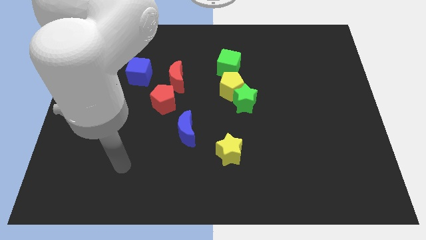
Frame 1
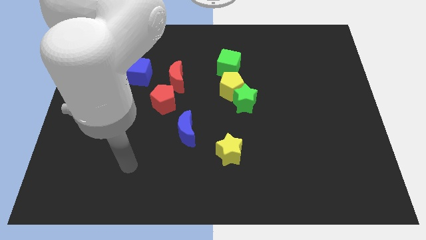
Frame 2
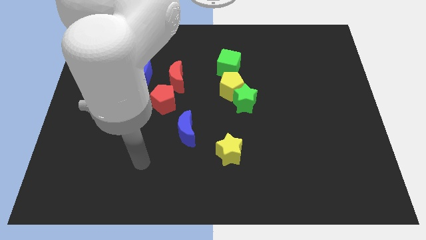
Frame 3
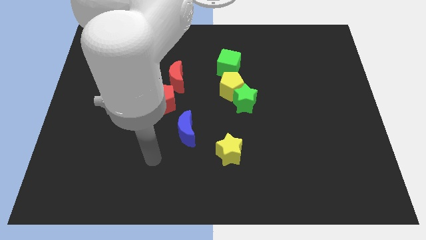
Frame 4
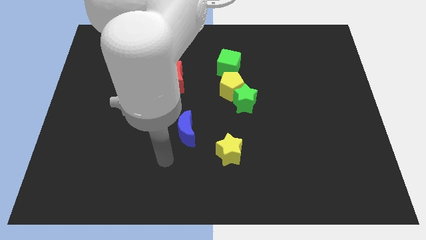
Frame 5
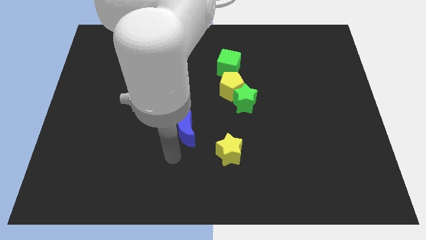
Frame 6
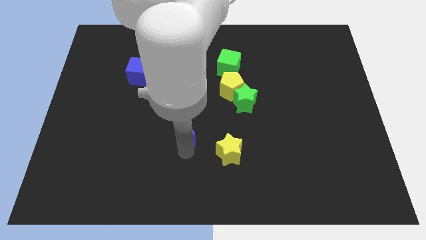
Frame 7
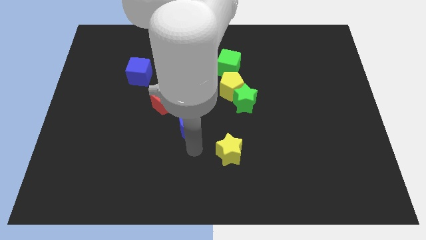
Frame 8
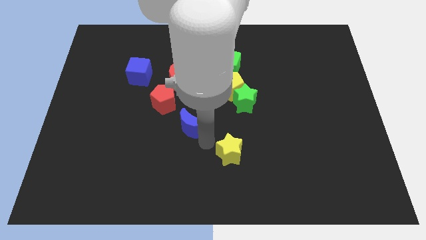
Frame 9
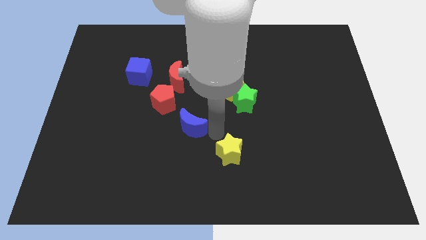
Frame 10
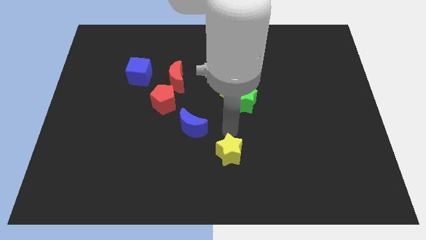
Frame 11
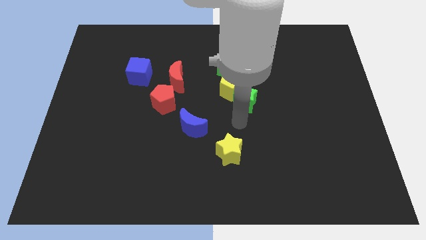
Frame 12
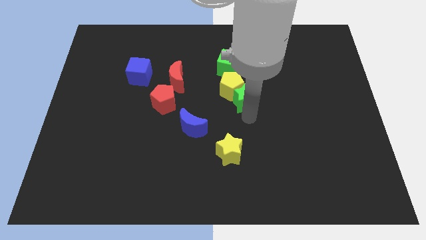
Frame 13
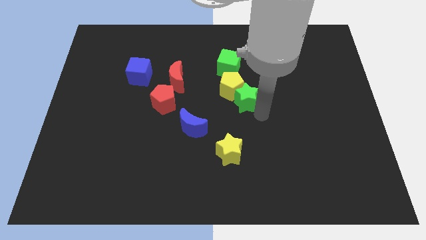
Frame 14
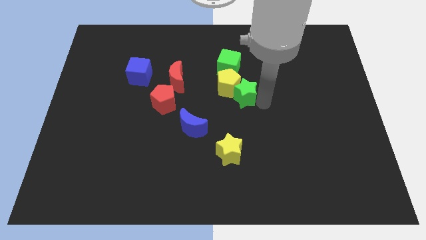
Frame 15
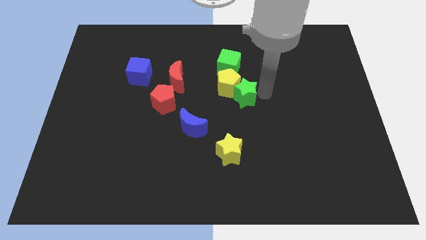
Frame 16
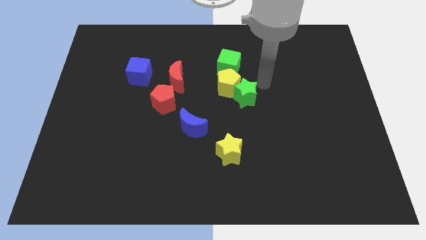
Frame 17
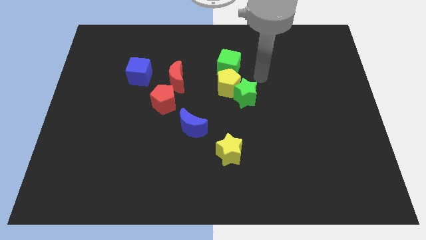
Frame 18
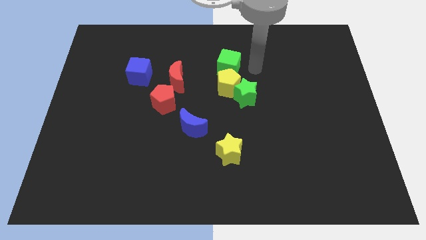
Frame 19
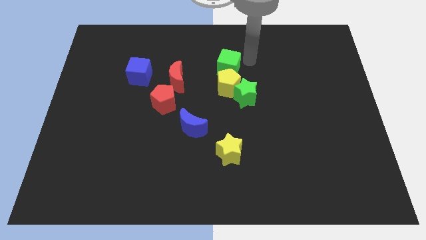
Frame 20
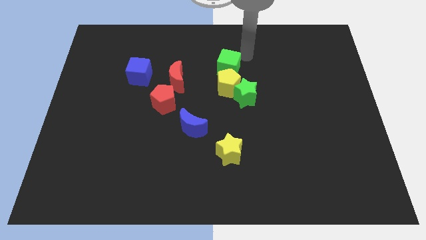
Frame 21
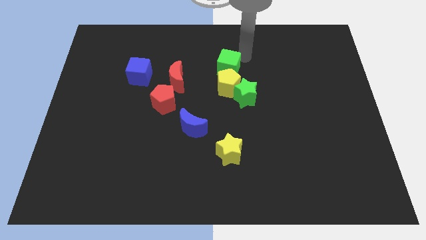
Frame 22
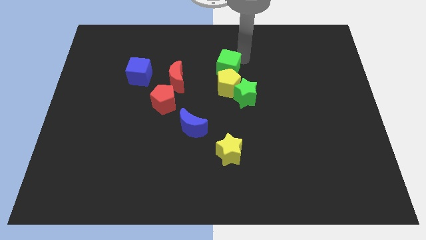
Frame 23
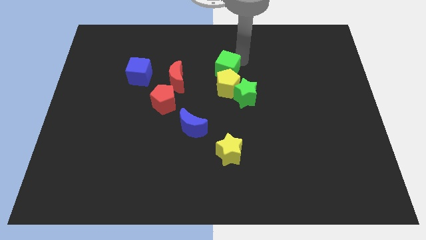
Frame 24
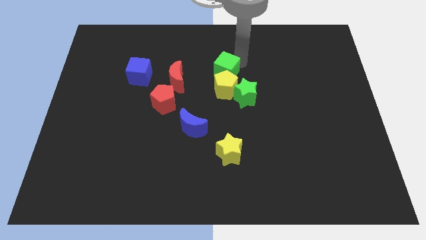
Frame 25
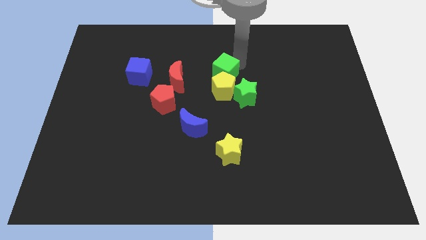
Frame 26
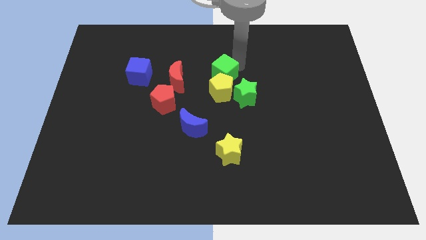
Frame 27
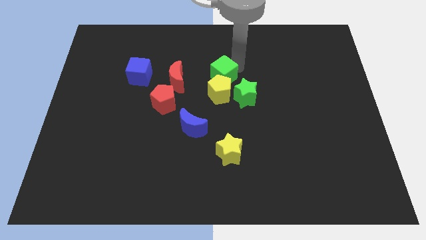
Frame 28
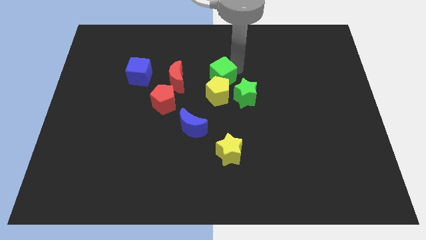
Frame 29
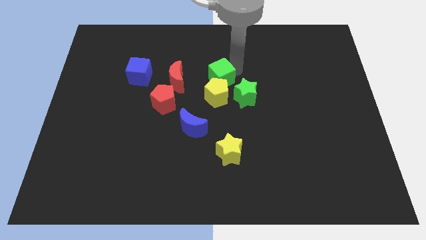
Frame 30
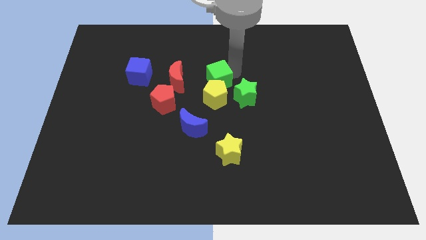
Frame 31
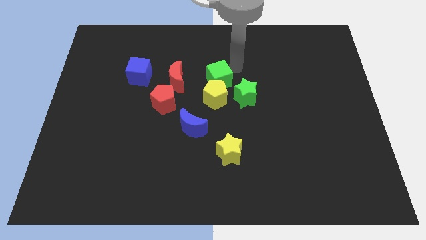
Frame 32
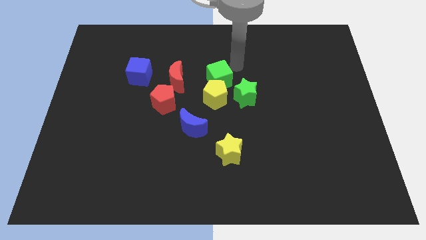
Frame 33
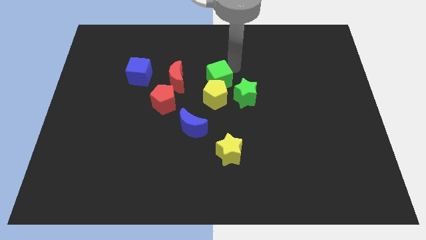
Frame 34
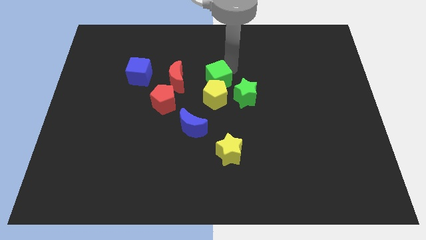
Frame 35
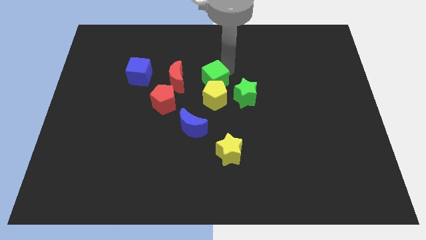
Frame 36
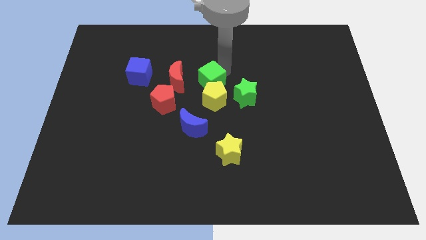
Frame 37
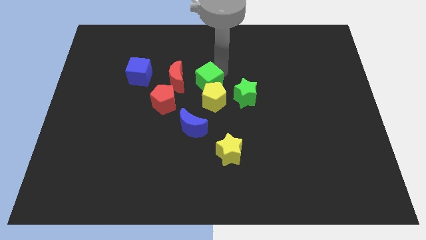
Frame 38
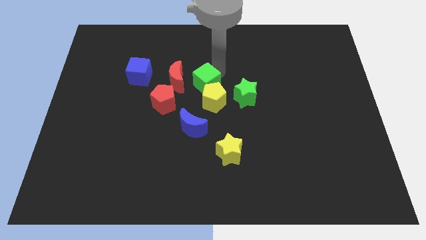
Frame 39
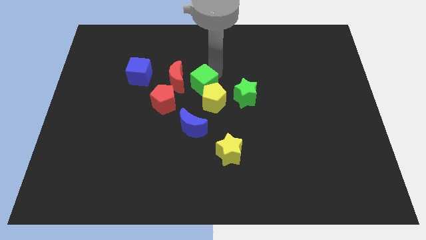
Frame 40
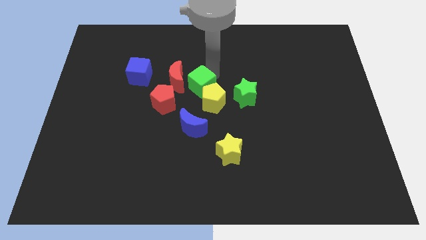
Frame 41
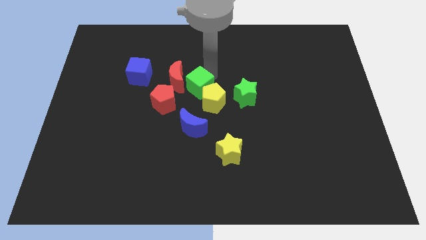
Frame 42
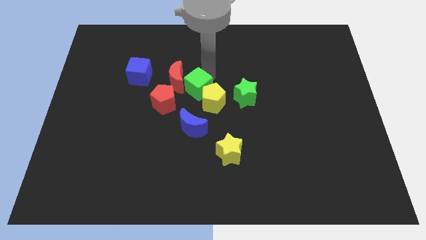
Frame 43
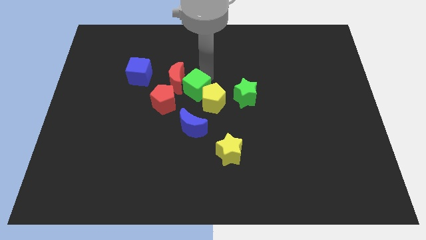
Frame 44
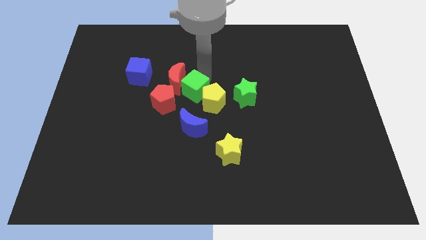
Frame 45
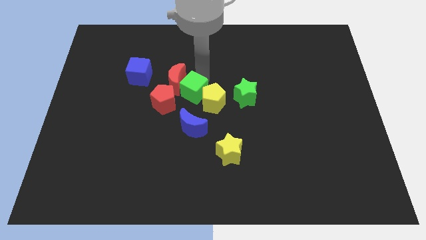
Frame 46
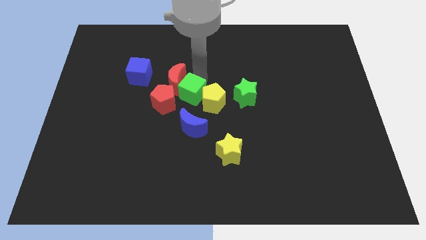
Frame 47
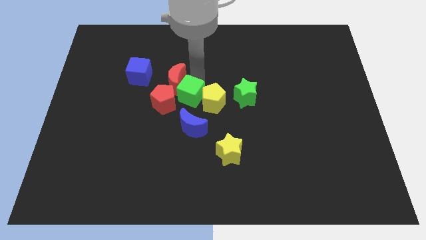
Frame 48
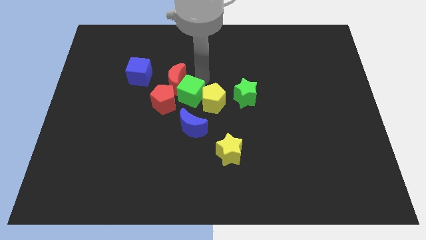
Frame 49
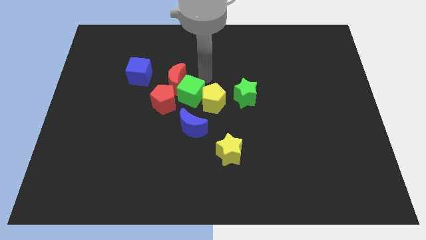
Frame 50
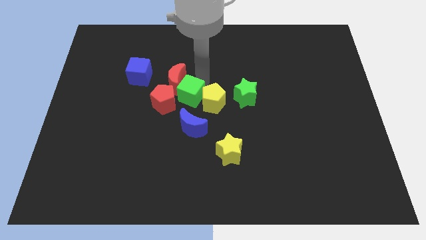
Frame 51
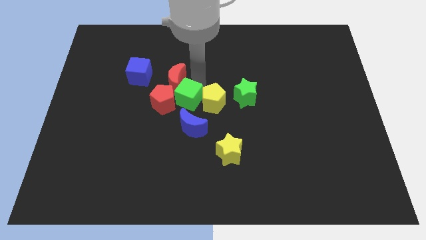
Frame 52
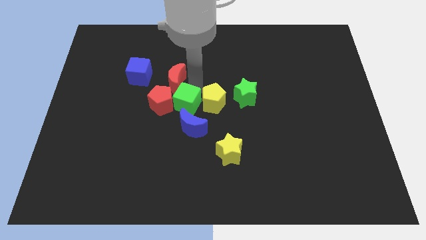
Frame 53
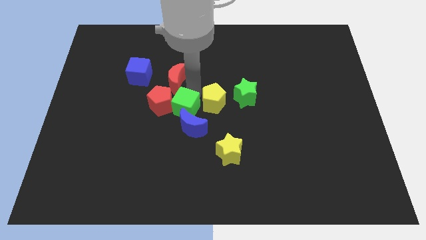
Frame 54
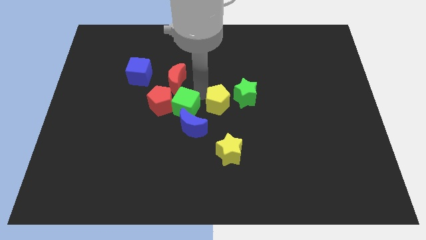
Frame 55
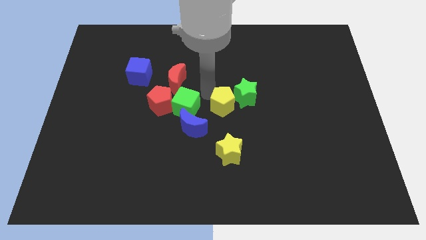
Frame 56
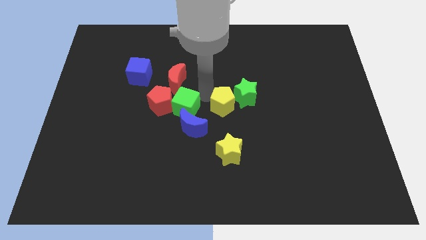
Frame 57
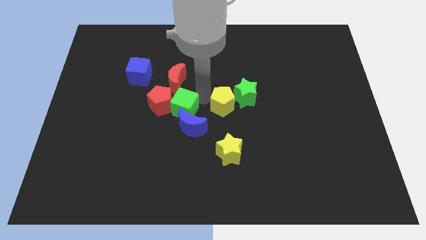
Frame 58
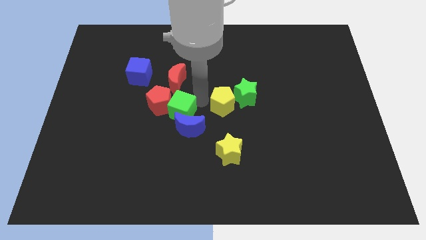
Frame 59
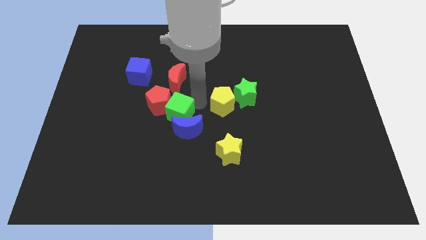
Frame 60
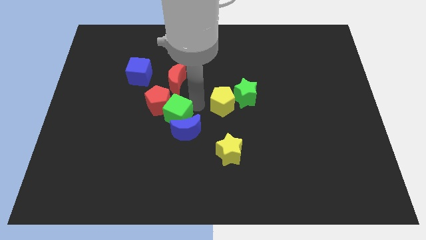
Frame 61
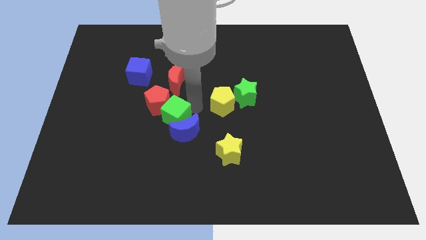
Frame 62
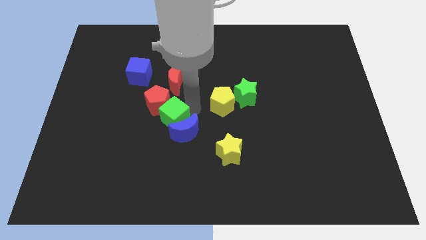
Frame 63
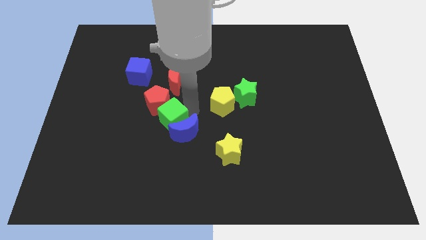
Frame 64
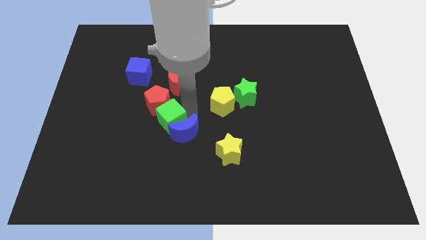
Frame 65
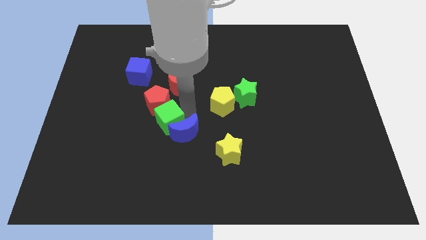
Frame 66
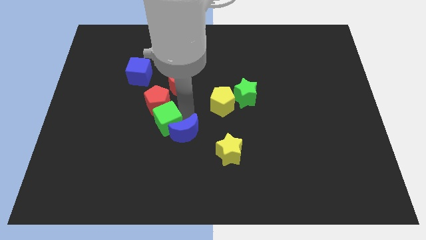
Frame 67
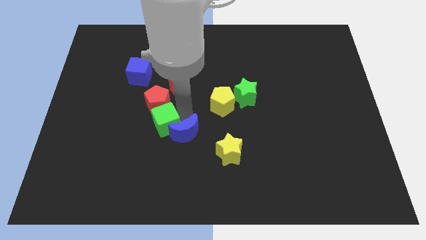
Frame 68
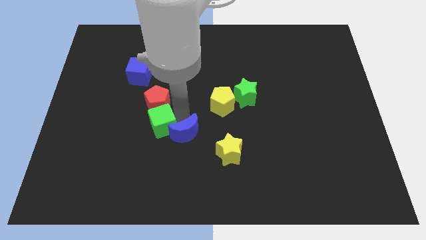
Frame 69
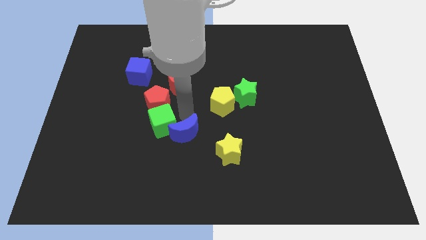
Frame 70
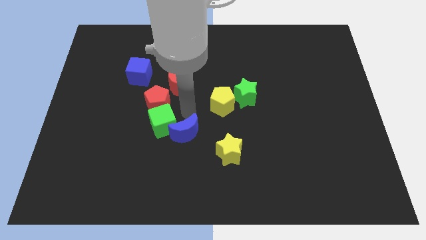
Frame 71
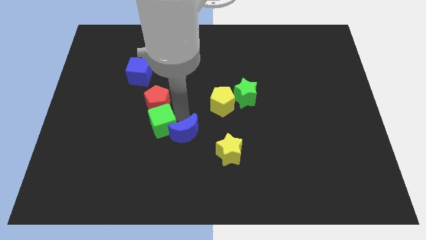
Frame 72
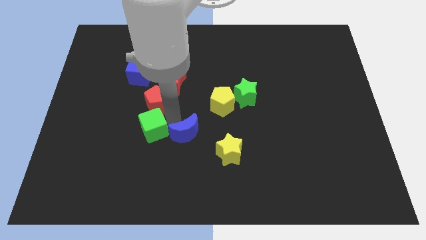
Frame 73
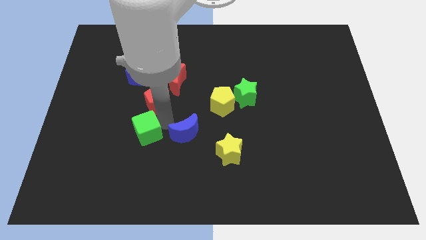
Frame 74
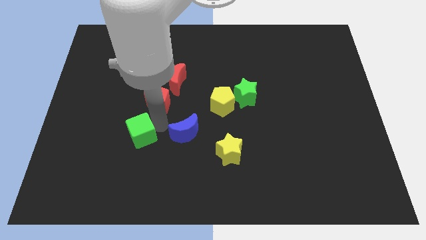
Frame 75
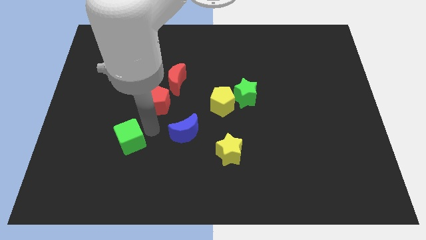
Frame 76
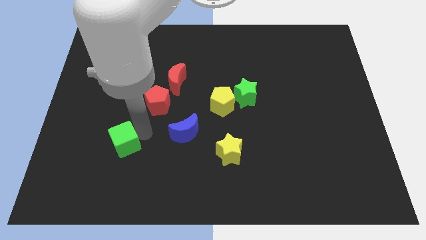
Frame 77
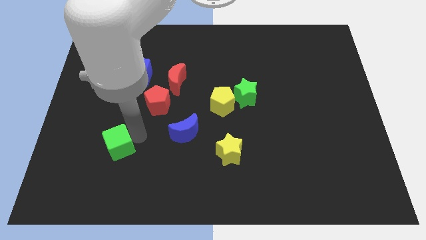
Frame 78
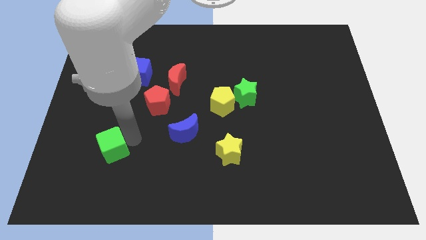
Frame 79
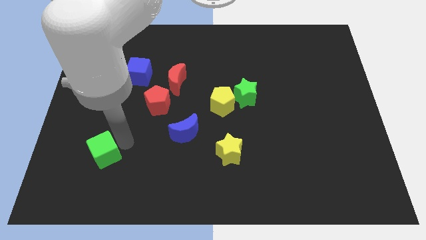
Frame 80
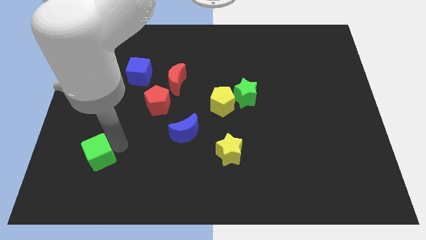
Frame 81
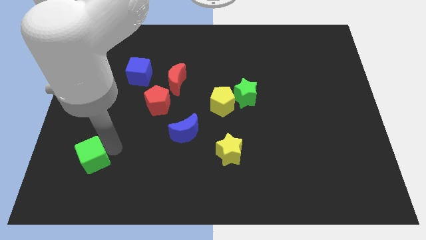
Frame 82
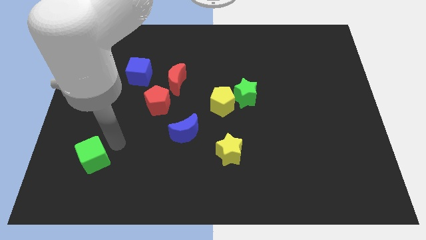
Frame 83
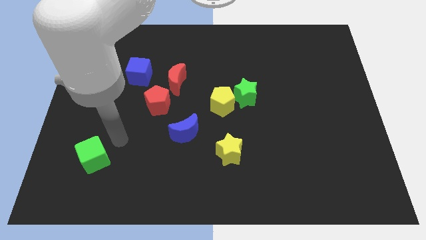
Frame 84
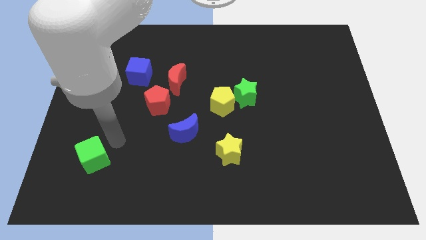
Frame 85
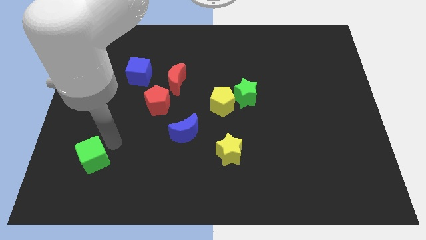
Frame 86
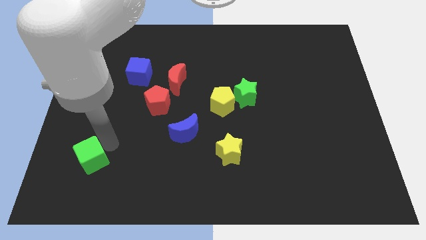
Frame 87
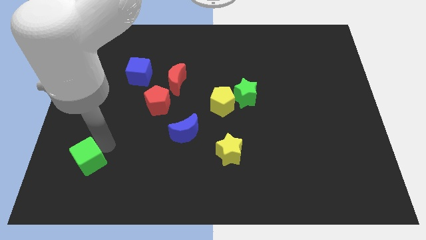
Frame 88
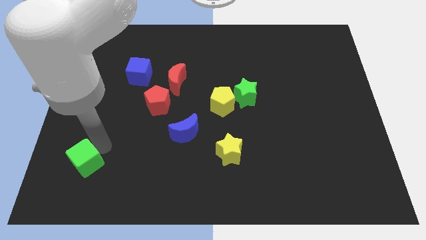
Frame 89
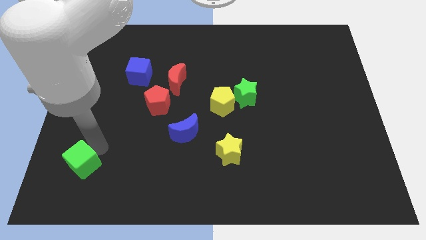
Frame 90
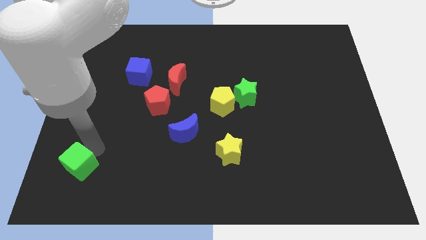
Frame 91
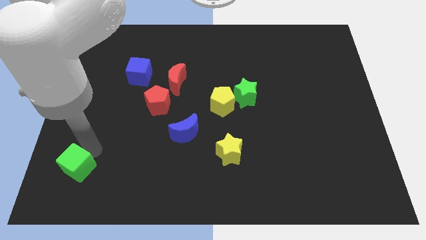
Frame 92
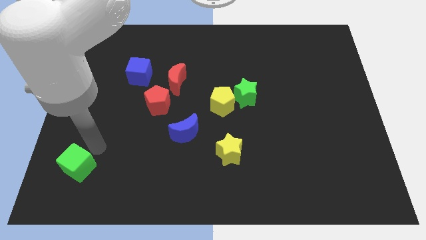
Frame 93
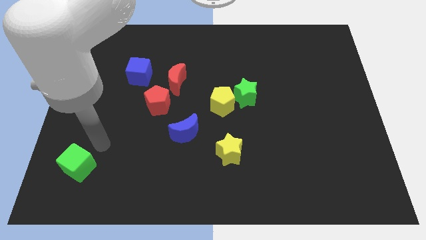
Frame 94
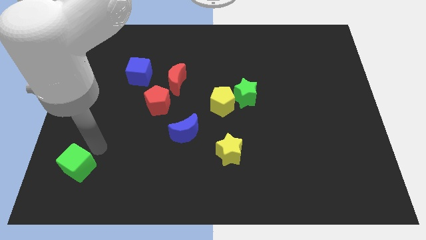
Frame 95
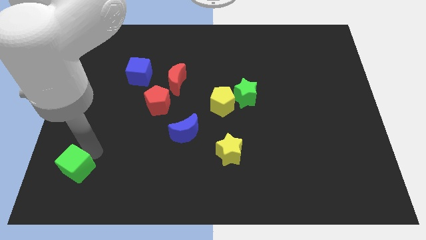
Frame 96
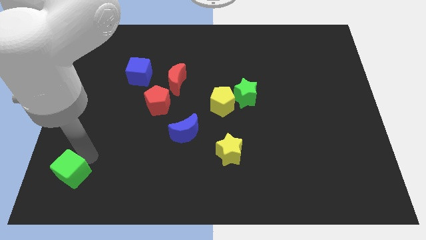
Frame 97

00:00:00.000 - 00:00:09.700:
push the green cube to the bottom left corner
